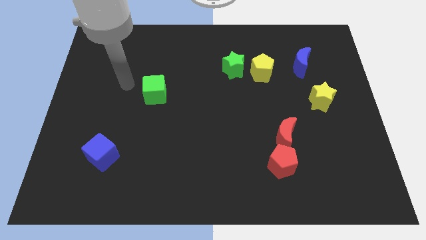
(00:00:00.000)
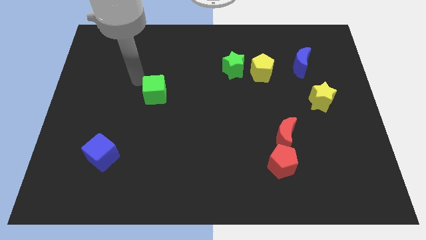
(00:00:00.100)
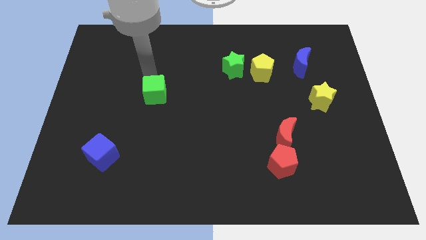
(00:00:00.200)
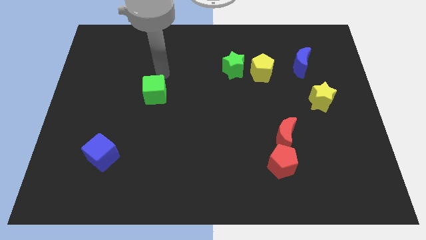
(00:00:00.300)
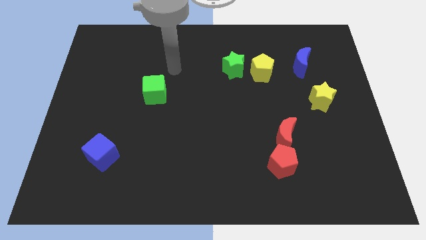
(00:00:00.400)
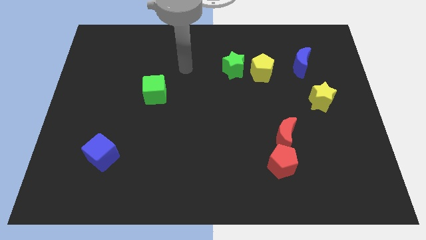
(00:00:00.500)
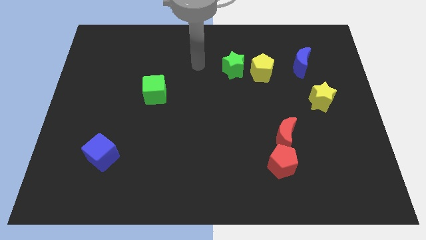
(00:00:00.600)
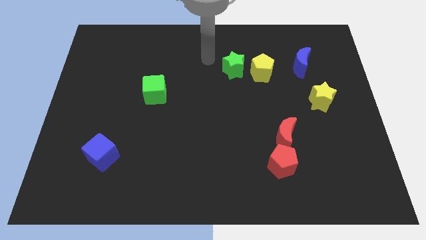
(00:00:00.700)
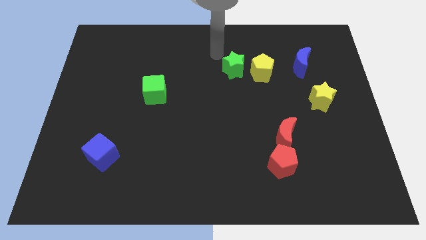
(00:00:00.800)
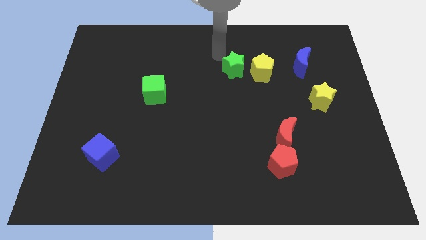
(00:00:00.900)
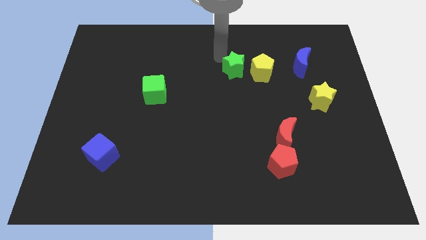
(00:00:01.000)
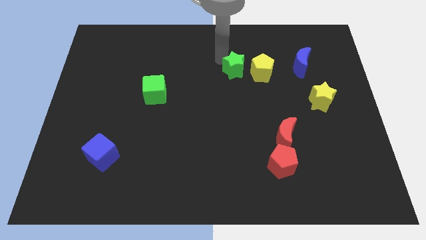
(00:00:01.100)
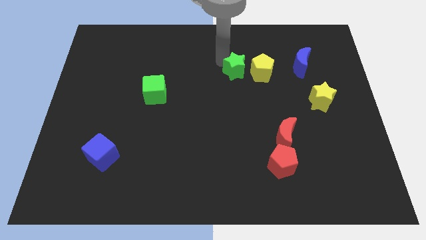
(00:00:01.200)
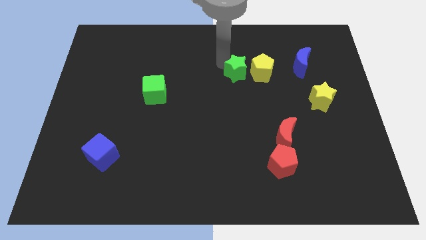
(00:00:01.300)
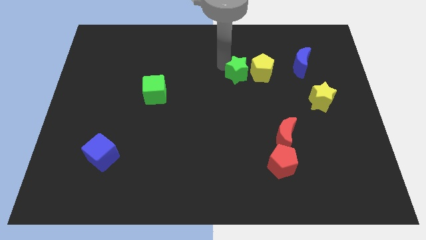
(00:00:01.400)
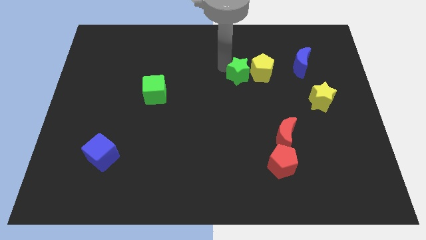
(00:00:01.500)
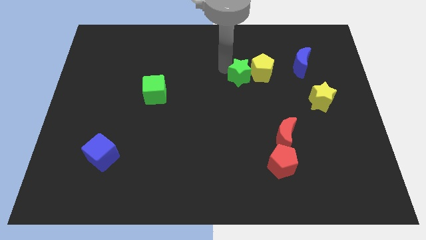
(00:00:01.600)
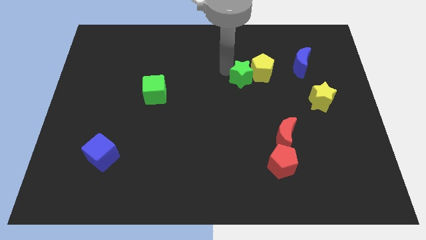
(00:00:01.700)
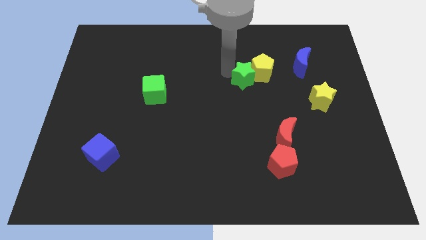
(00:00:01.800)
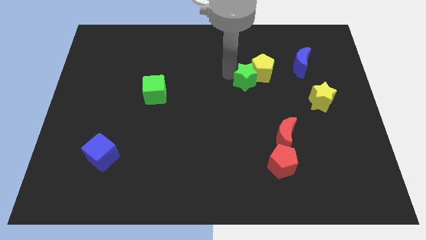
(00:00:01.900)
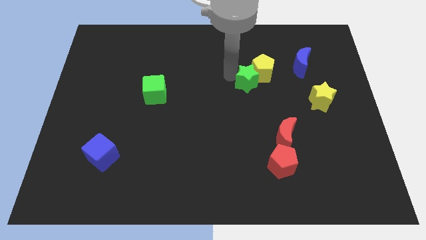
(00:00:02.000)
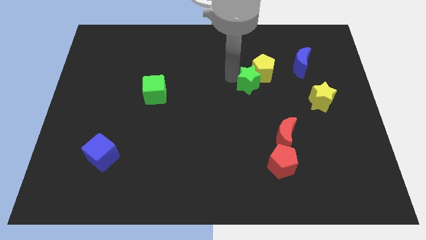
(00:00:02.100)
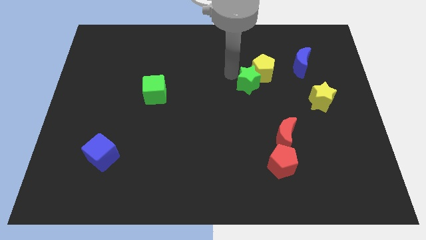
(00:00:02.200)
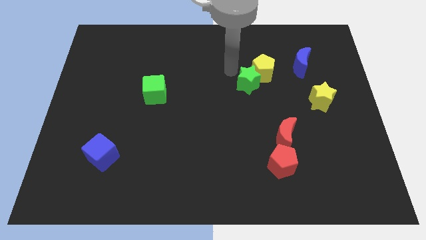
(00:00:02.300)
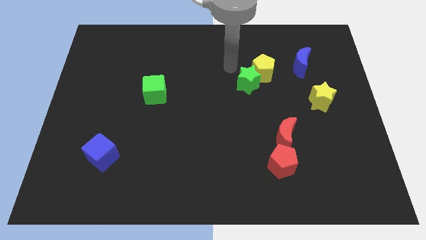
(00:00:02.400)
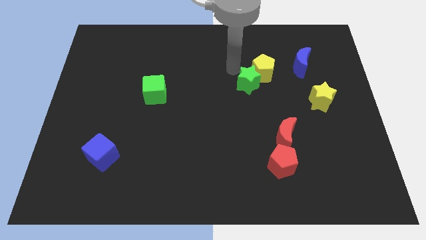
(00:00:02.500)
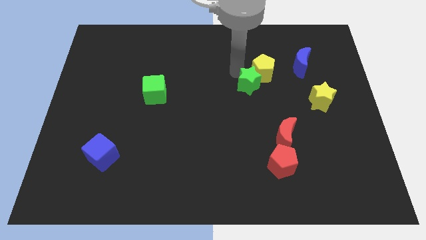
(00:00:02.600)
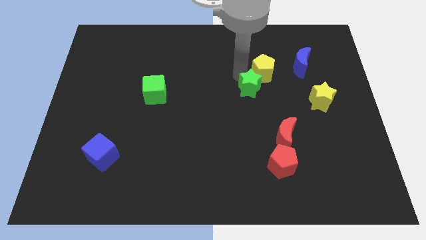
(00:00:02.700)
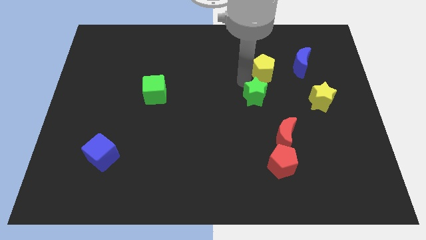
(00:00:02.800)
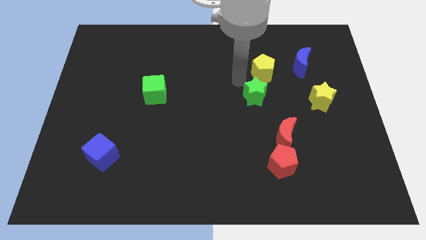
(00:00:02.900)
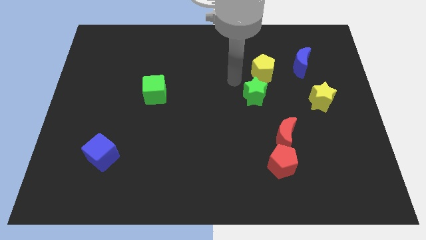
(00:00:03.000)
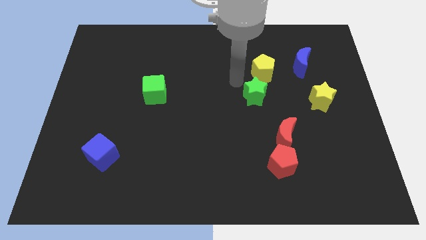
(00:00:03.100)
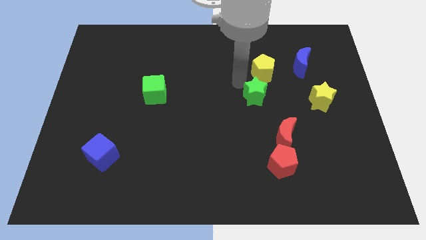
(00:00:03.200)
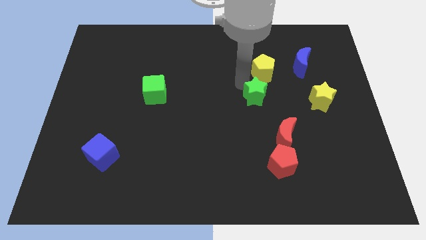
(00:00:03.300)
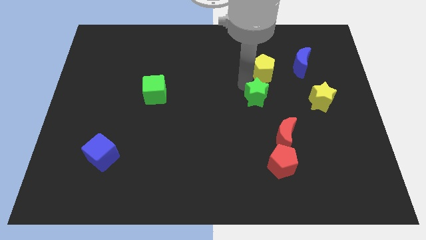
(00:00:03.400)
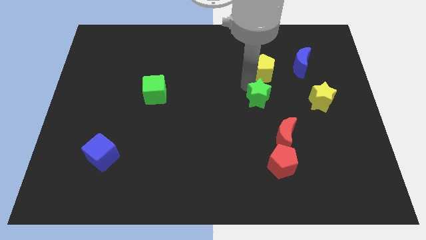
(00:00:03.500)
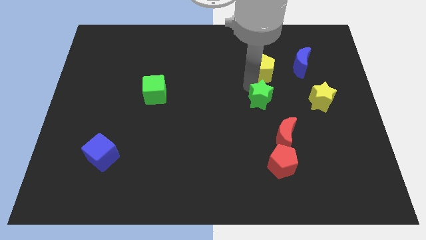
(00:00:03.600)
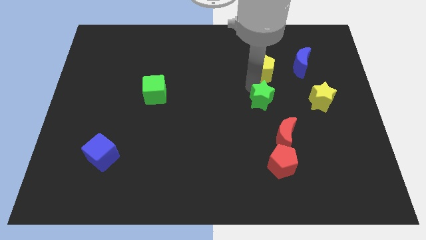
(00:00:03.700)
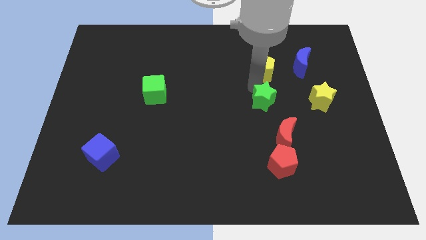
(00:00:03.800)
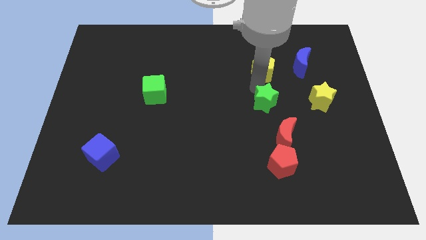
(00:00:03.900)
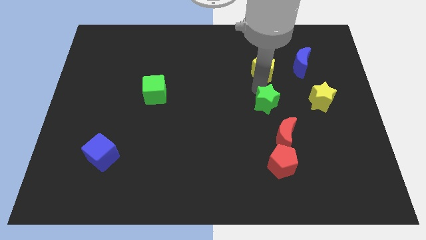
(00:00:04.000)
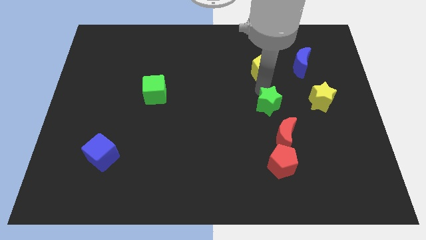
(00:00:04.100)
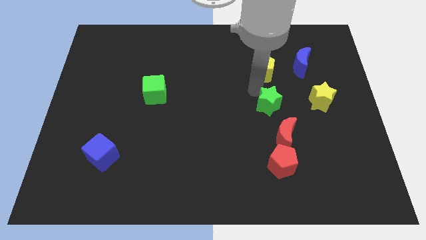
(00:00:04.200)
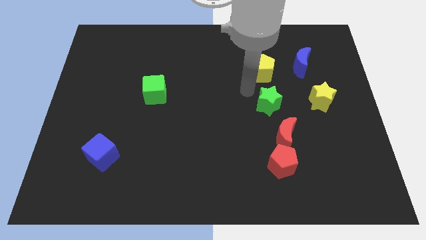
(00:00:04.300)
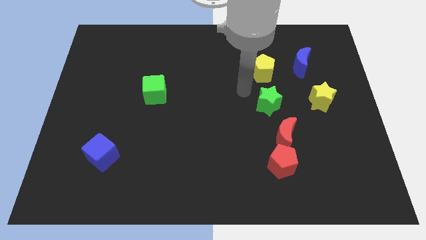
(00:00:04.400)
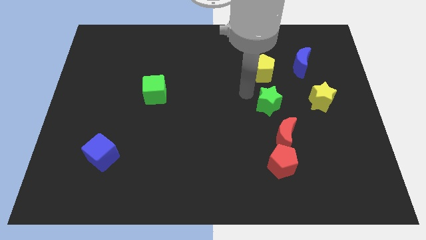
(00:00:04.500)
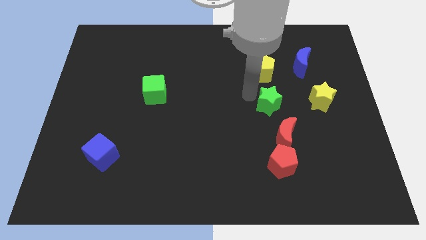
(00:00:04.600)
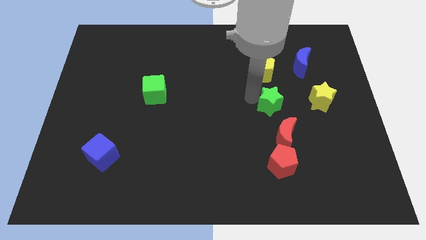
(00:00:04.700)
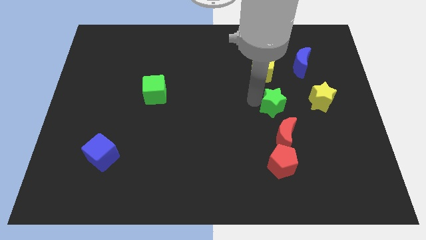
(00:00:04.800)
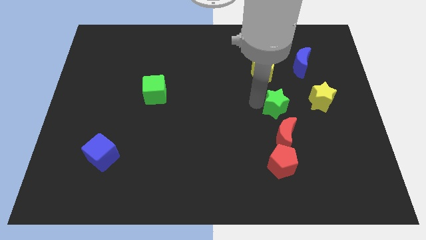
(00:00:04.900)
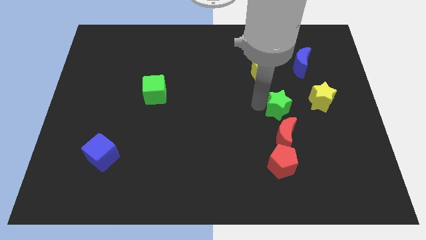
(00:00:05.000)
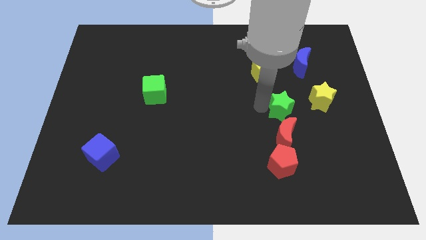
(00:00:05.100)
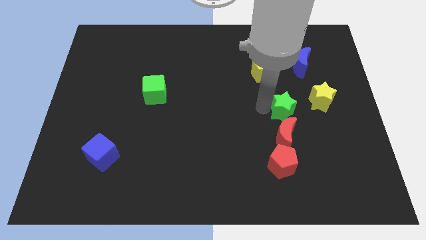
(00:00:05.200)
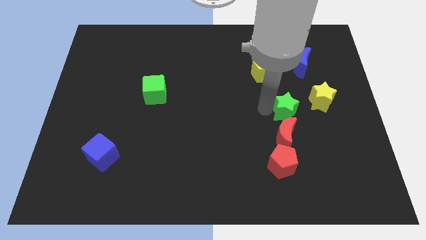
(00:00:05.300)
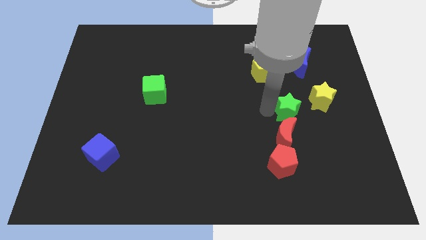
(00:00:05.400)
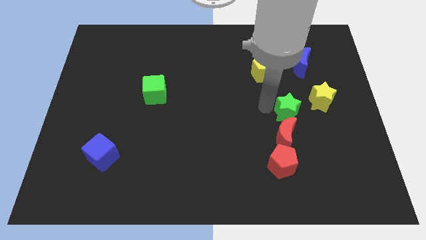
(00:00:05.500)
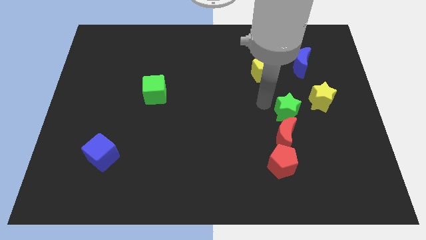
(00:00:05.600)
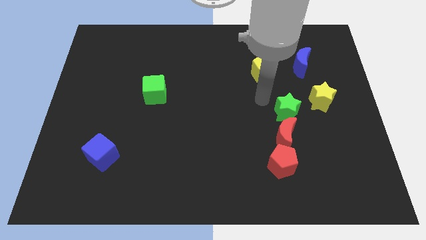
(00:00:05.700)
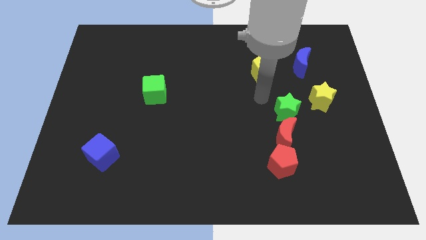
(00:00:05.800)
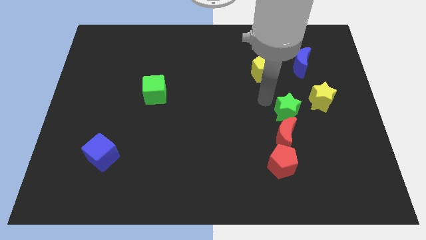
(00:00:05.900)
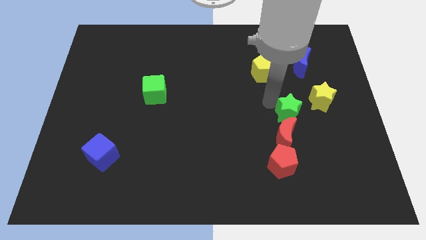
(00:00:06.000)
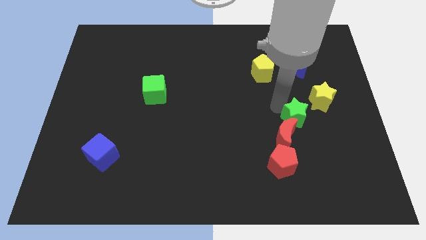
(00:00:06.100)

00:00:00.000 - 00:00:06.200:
slide the green star down and then right

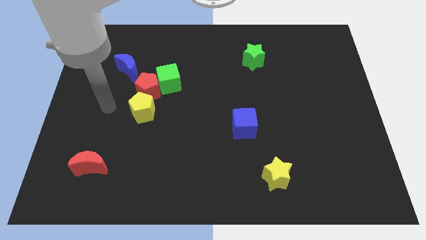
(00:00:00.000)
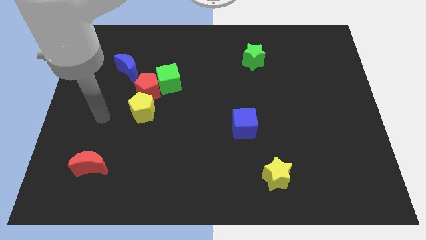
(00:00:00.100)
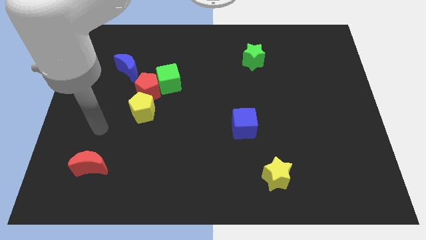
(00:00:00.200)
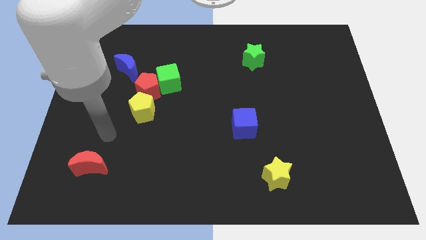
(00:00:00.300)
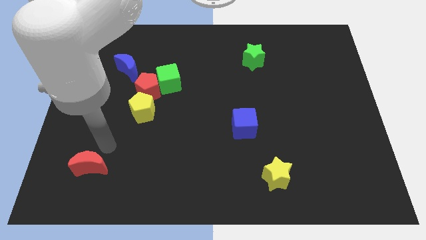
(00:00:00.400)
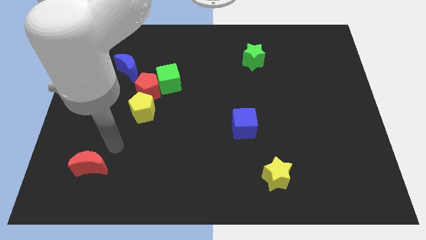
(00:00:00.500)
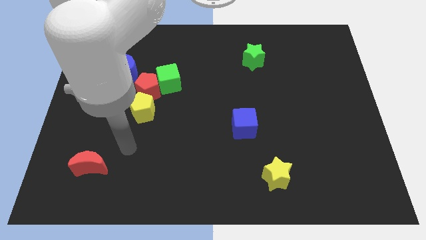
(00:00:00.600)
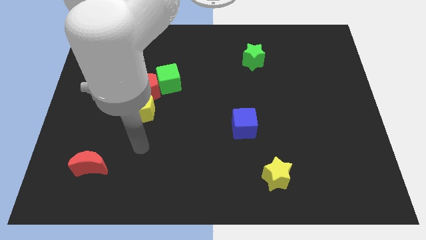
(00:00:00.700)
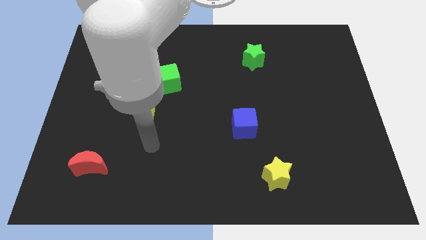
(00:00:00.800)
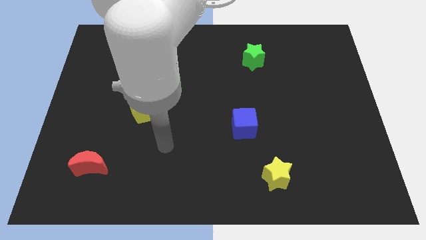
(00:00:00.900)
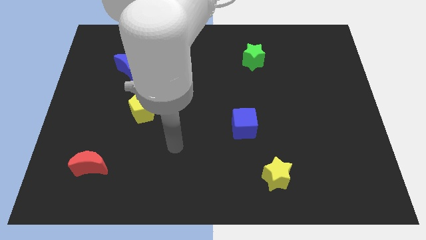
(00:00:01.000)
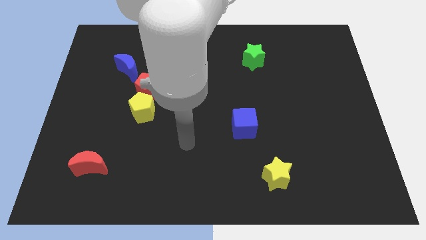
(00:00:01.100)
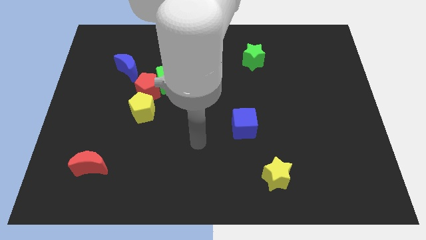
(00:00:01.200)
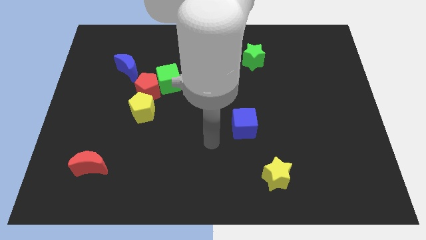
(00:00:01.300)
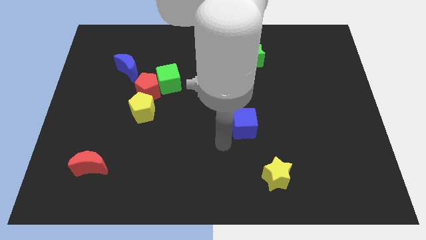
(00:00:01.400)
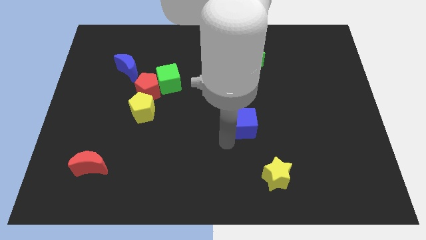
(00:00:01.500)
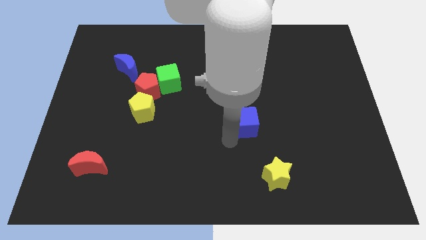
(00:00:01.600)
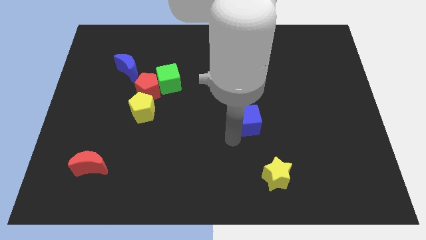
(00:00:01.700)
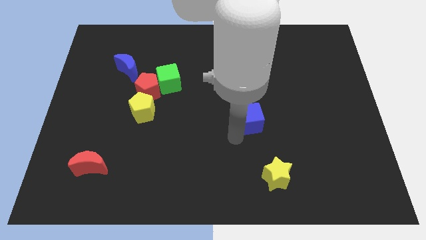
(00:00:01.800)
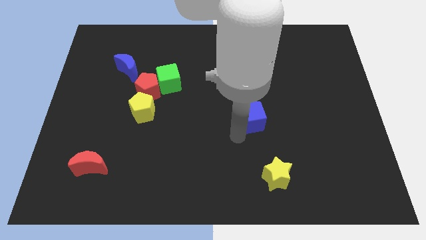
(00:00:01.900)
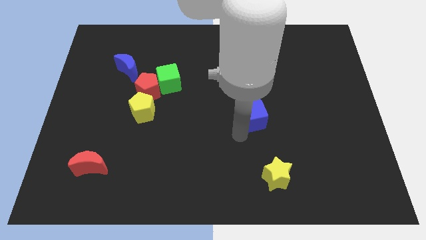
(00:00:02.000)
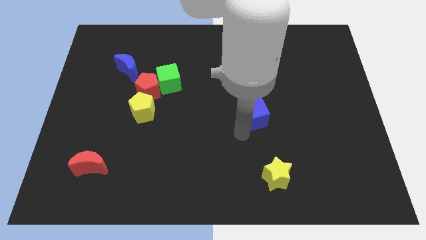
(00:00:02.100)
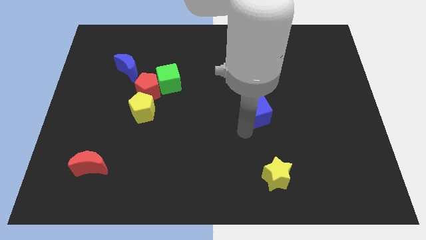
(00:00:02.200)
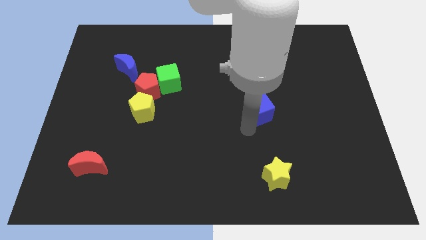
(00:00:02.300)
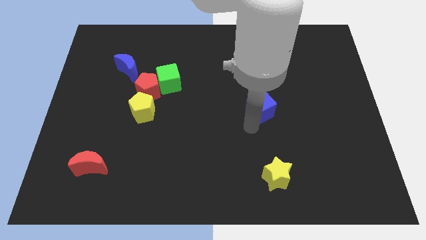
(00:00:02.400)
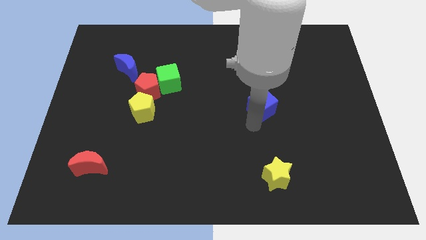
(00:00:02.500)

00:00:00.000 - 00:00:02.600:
move the blue cube diagonally up and to the right a little
